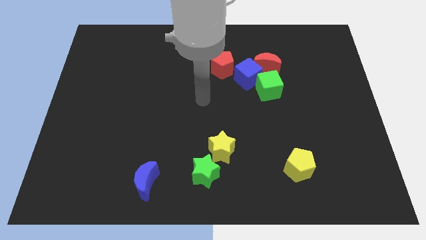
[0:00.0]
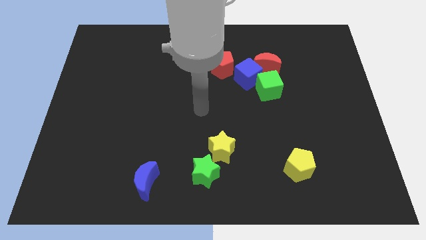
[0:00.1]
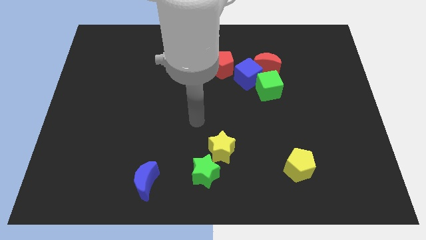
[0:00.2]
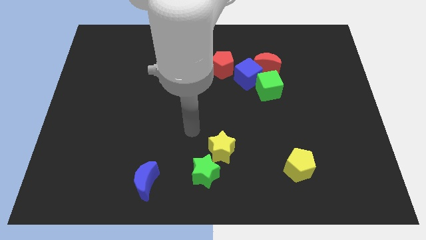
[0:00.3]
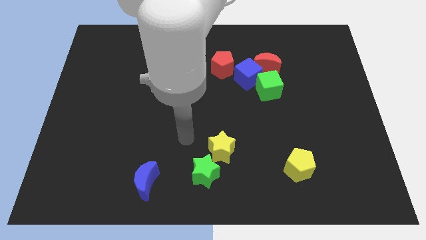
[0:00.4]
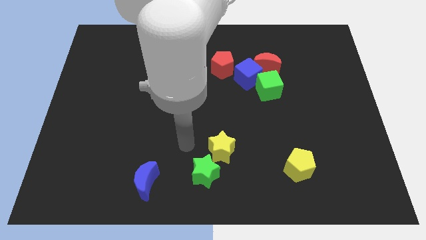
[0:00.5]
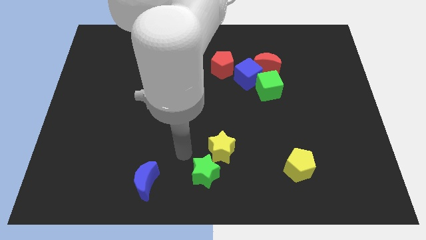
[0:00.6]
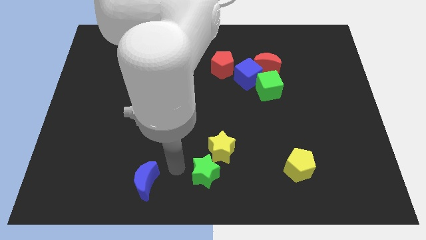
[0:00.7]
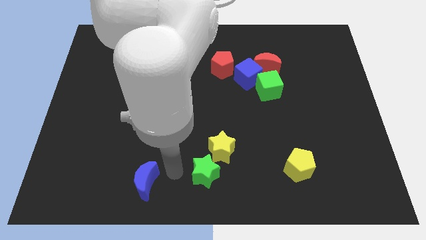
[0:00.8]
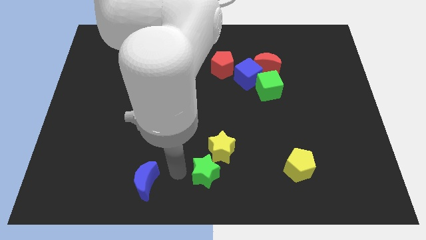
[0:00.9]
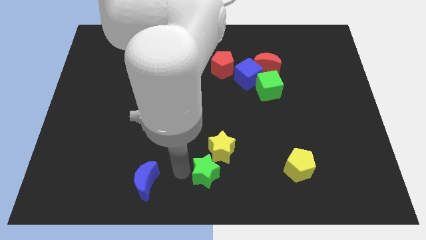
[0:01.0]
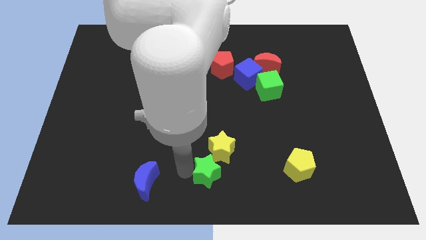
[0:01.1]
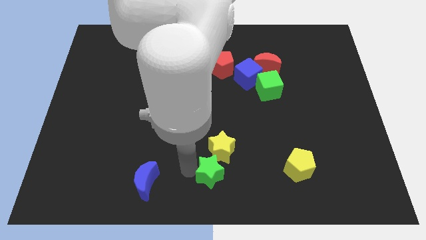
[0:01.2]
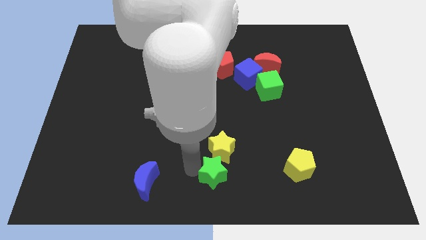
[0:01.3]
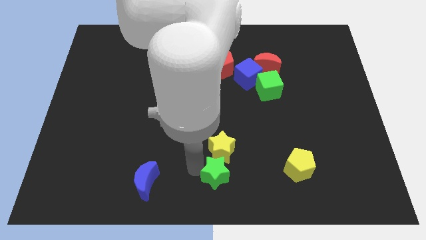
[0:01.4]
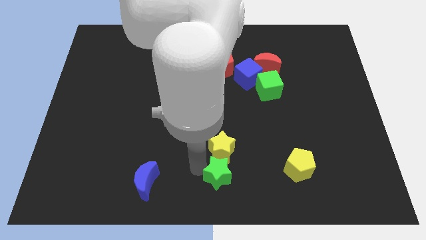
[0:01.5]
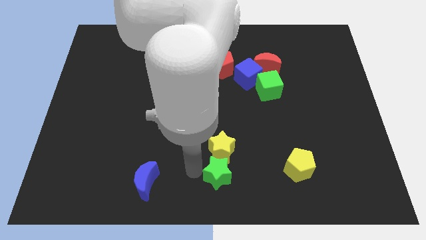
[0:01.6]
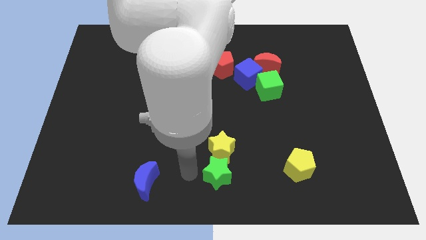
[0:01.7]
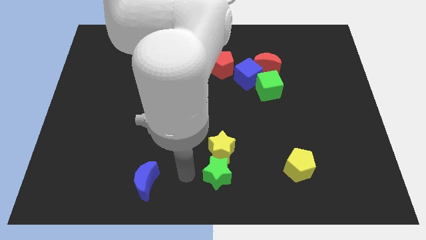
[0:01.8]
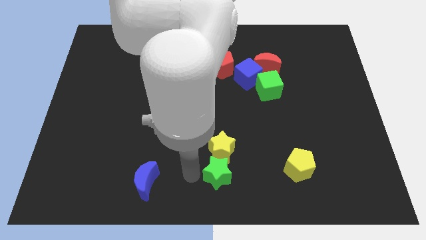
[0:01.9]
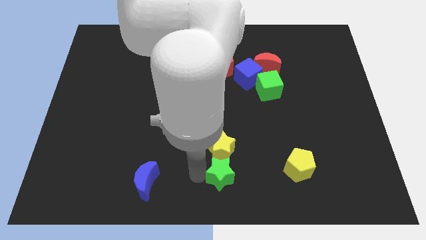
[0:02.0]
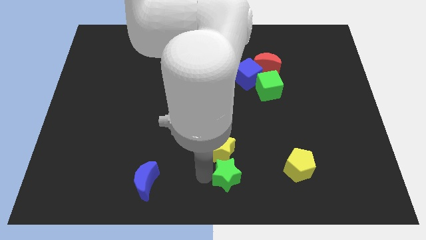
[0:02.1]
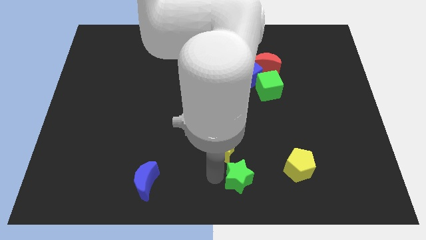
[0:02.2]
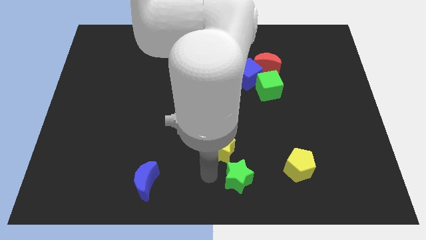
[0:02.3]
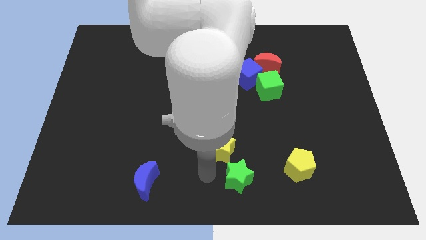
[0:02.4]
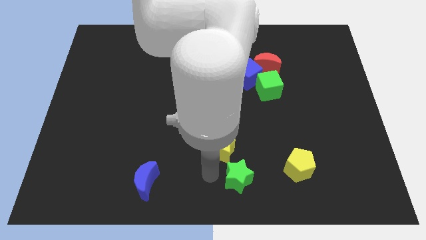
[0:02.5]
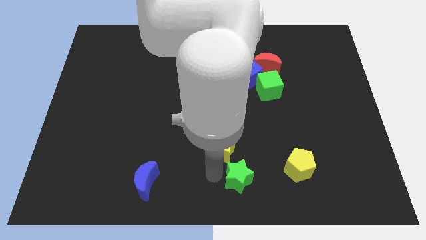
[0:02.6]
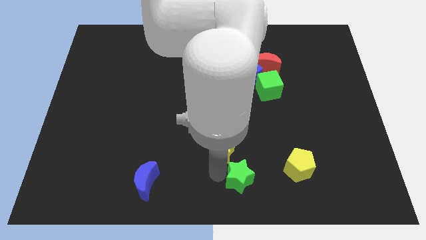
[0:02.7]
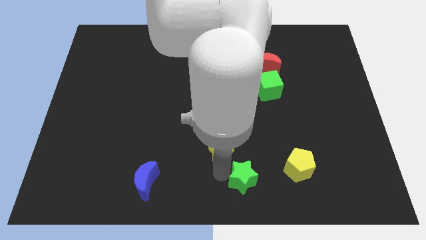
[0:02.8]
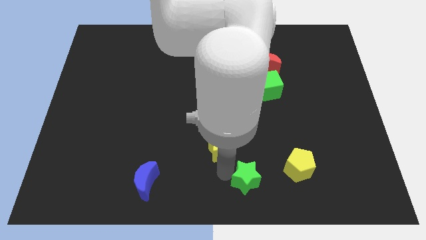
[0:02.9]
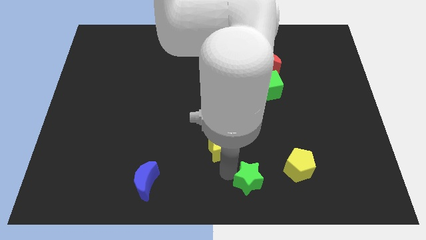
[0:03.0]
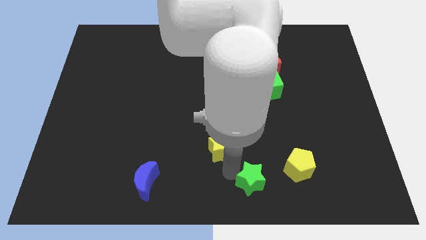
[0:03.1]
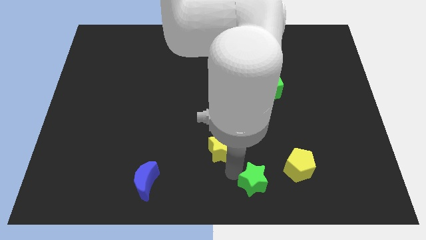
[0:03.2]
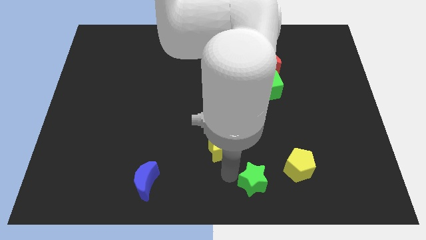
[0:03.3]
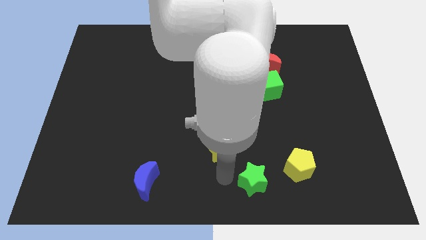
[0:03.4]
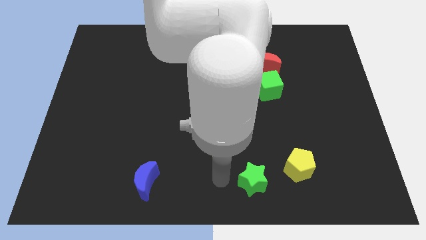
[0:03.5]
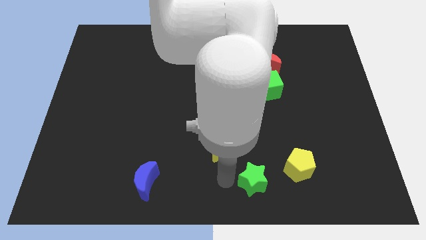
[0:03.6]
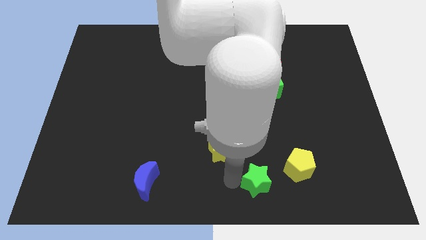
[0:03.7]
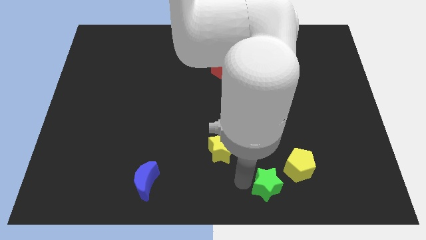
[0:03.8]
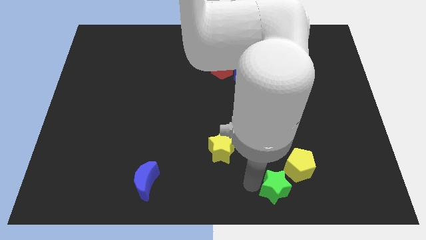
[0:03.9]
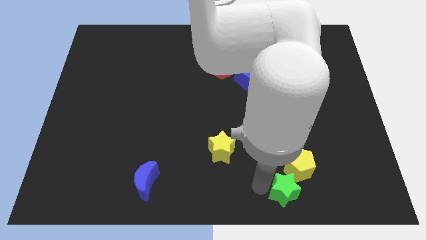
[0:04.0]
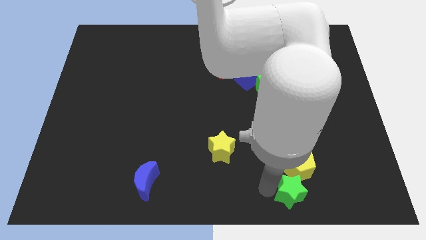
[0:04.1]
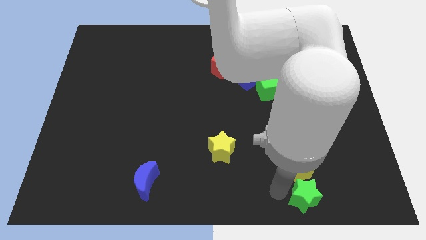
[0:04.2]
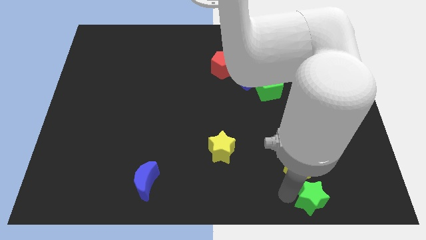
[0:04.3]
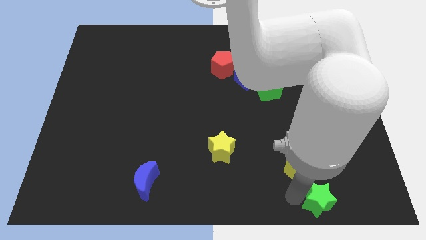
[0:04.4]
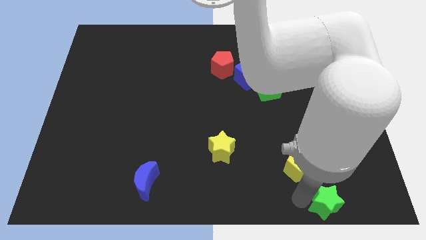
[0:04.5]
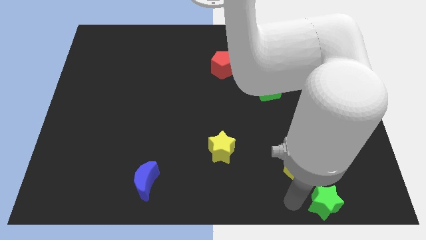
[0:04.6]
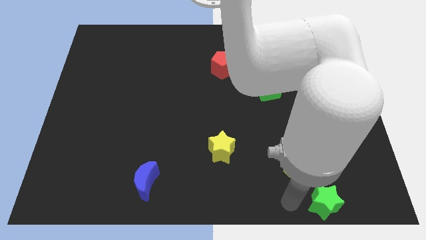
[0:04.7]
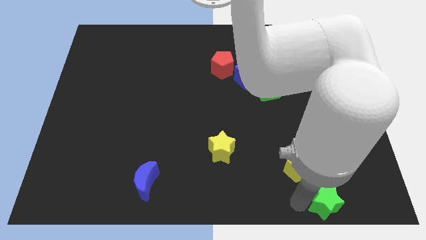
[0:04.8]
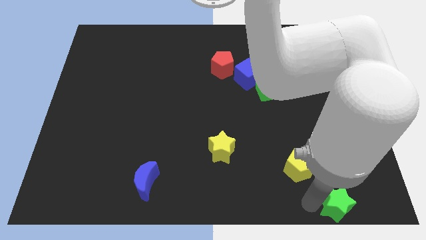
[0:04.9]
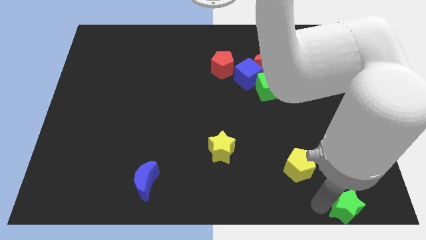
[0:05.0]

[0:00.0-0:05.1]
move the green star to the lower right corner

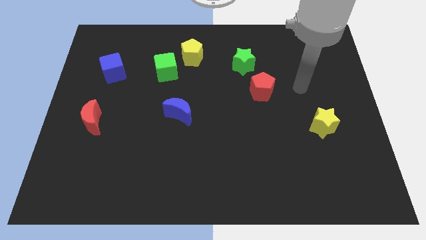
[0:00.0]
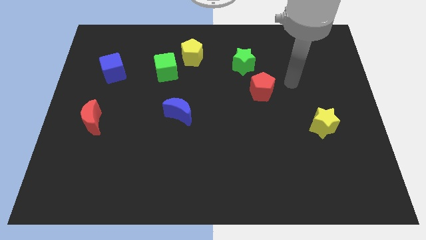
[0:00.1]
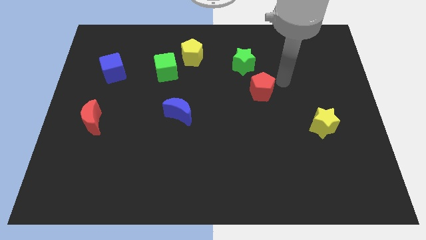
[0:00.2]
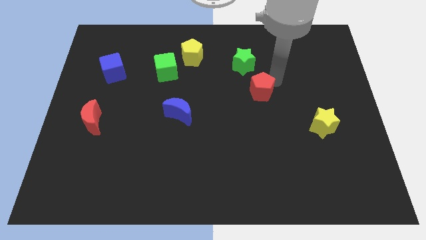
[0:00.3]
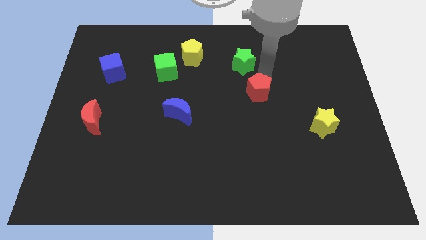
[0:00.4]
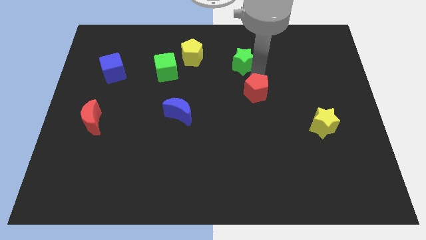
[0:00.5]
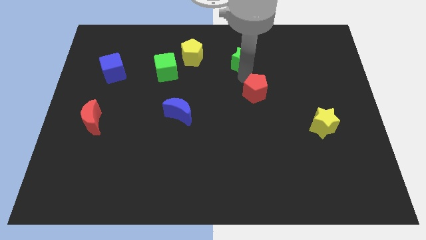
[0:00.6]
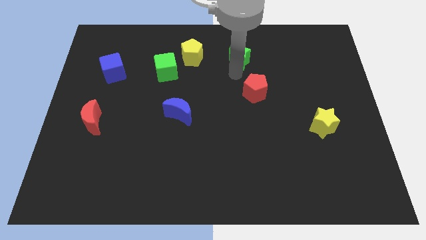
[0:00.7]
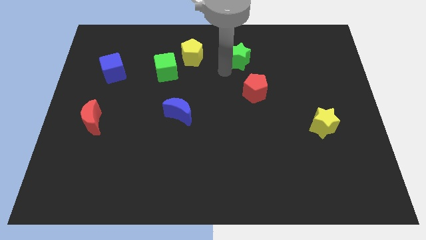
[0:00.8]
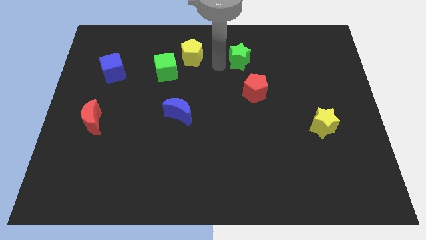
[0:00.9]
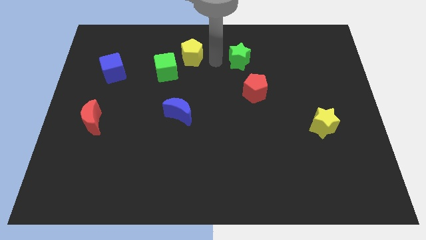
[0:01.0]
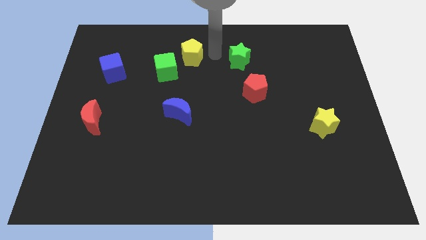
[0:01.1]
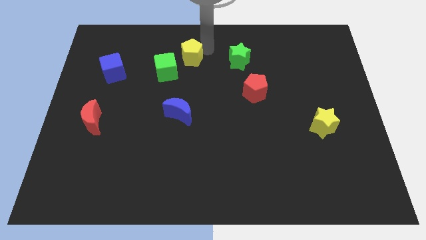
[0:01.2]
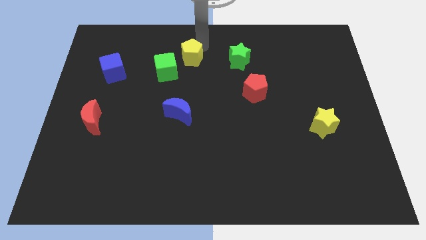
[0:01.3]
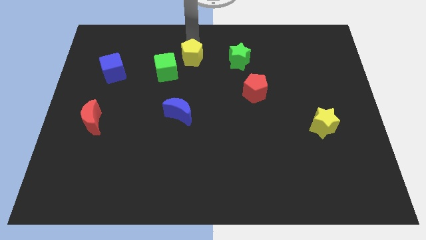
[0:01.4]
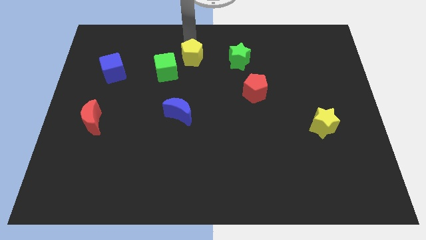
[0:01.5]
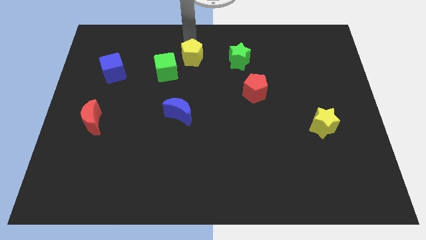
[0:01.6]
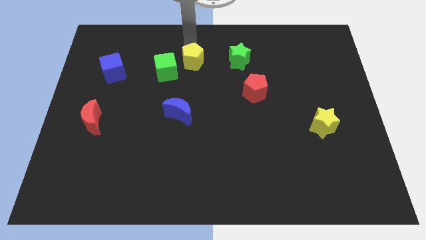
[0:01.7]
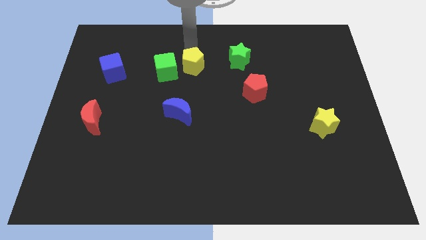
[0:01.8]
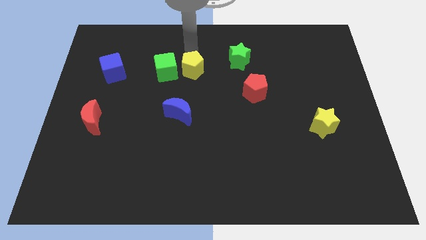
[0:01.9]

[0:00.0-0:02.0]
push the yellow pentagon to the center of the board
